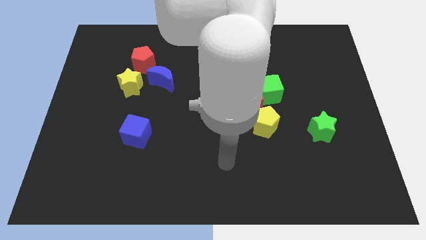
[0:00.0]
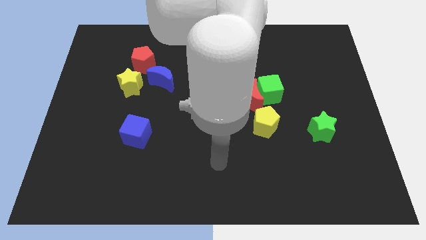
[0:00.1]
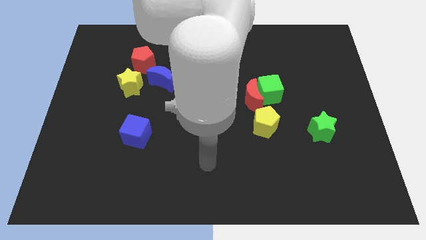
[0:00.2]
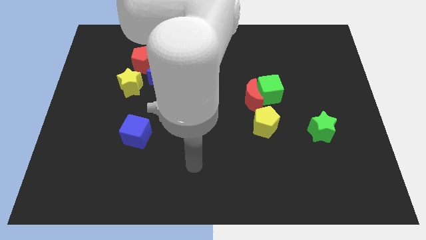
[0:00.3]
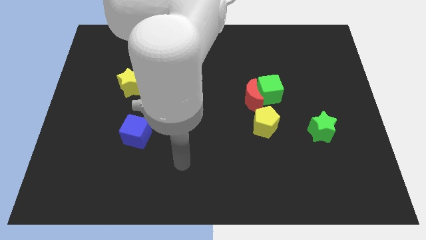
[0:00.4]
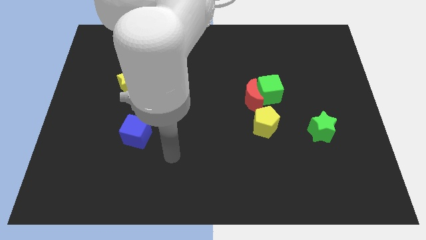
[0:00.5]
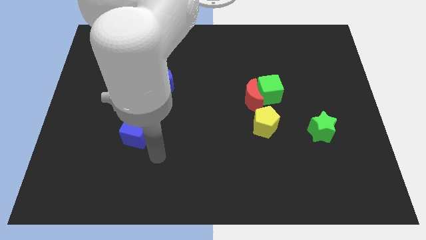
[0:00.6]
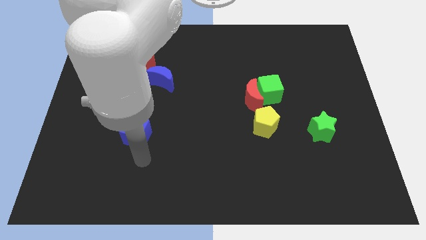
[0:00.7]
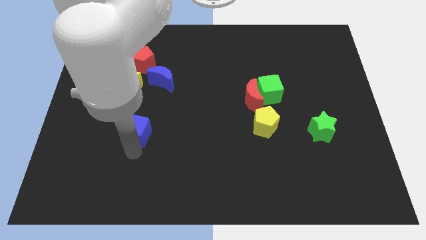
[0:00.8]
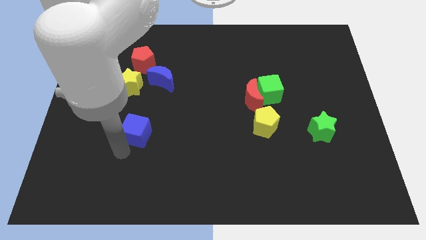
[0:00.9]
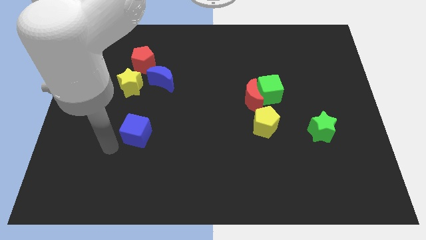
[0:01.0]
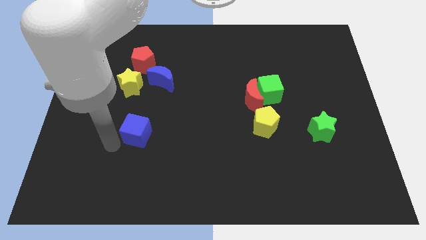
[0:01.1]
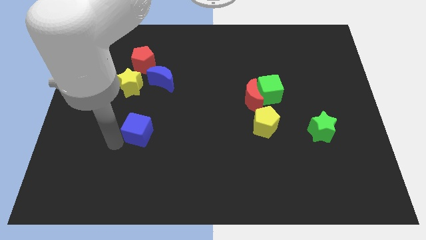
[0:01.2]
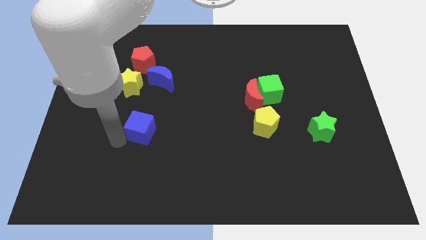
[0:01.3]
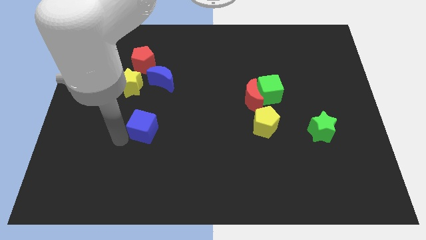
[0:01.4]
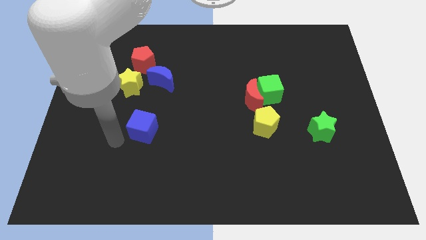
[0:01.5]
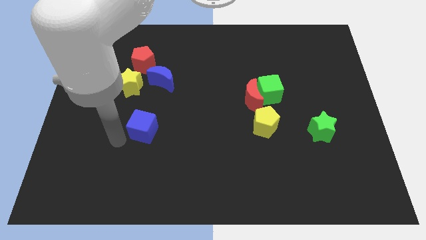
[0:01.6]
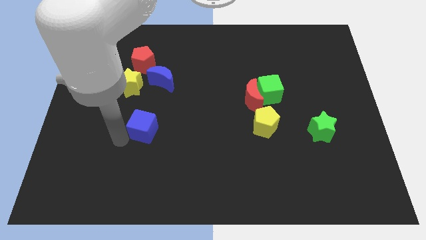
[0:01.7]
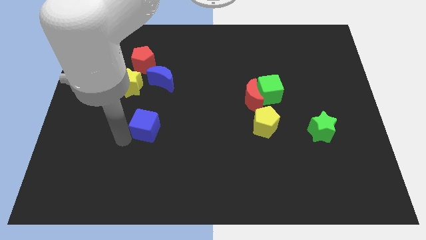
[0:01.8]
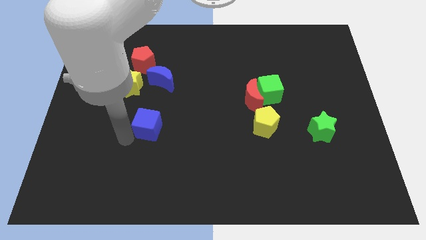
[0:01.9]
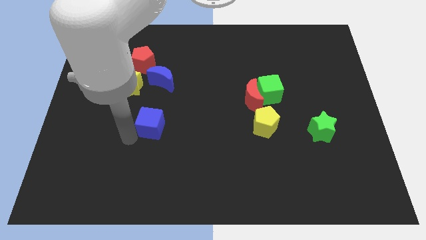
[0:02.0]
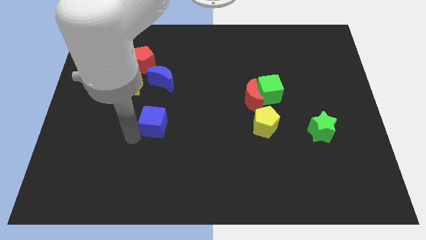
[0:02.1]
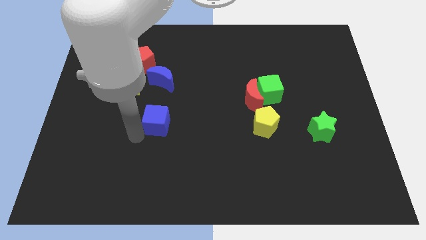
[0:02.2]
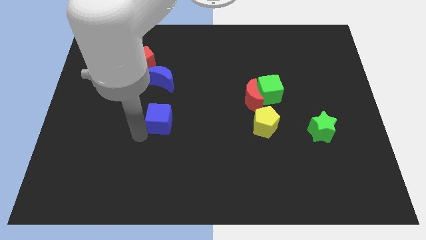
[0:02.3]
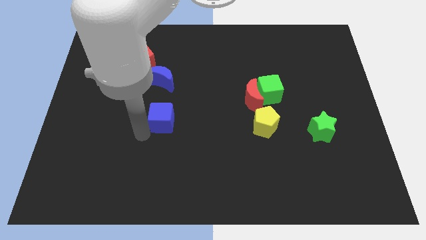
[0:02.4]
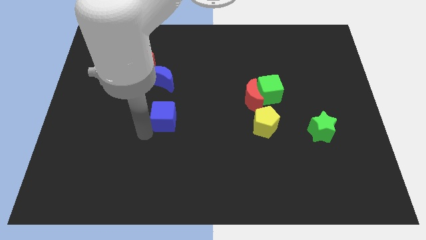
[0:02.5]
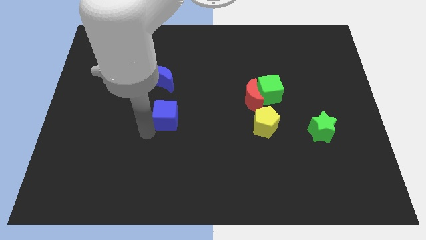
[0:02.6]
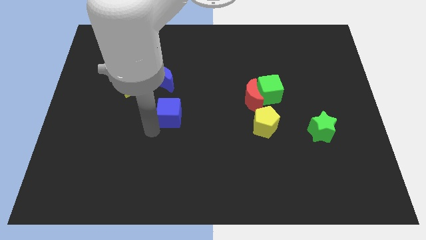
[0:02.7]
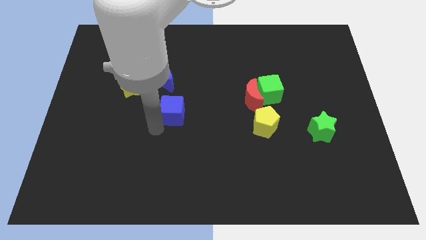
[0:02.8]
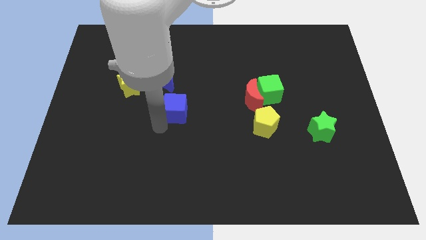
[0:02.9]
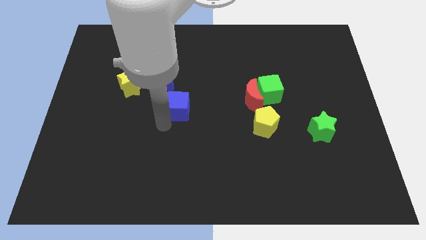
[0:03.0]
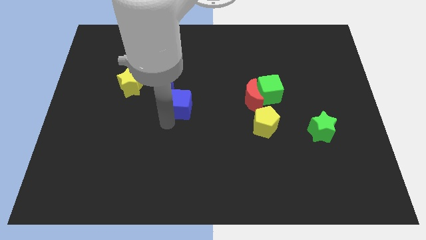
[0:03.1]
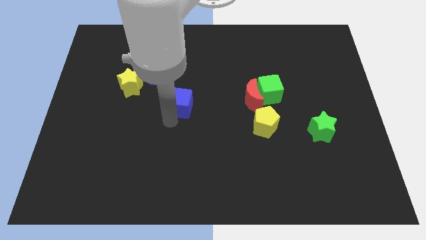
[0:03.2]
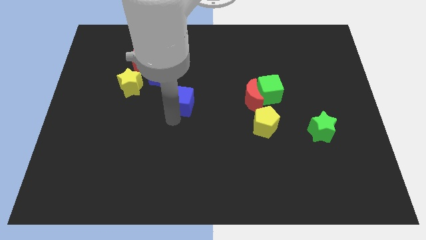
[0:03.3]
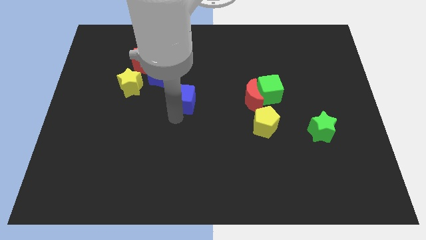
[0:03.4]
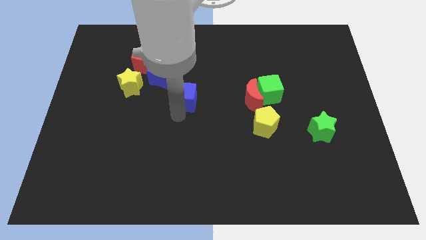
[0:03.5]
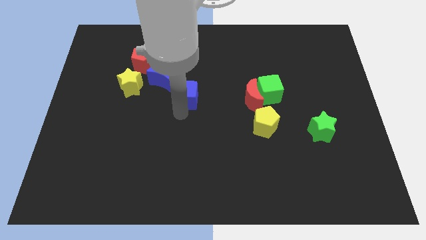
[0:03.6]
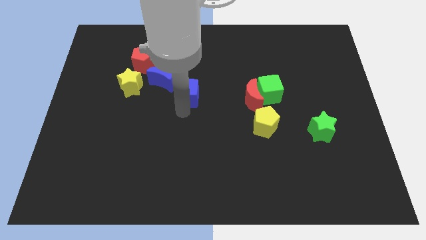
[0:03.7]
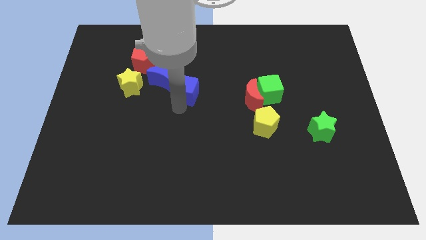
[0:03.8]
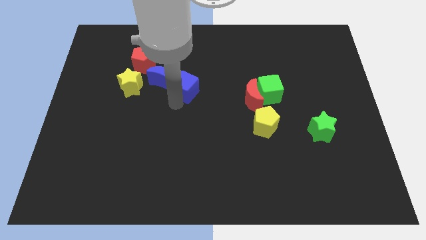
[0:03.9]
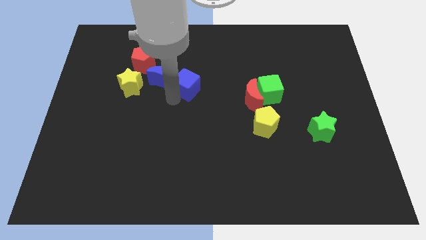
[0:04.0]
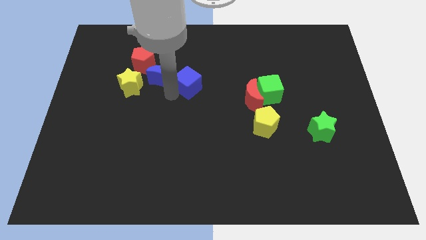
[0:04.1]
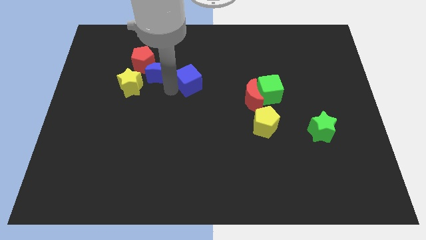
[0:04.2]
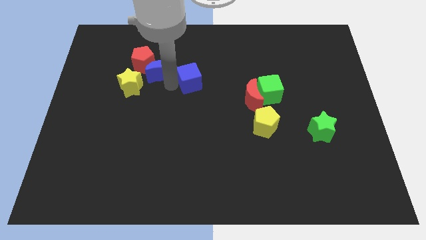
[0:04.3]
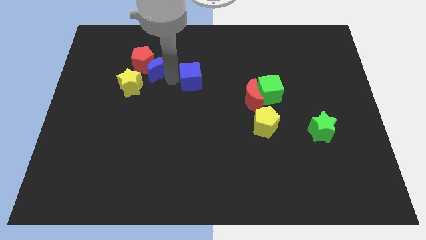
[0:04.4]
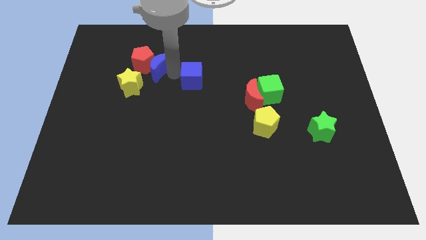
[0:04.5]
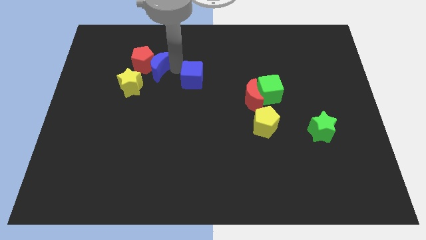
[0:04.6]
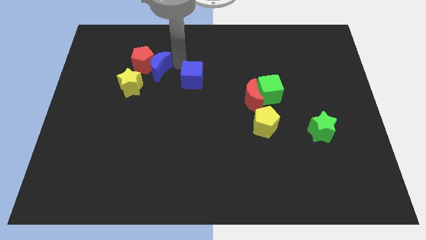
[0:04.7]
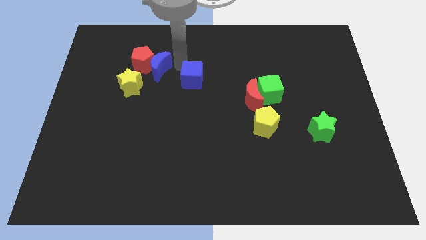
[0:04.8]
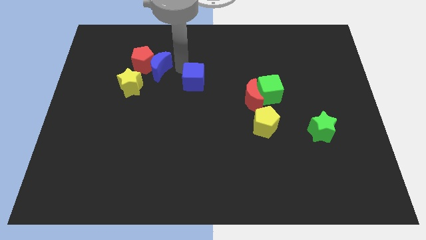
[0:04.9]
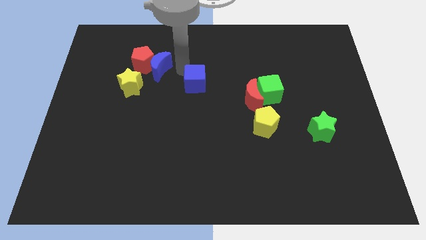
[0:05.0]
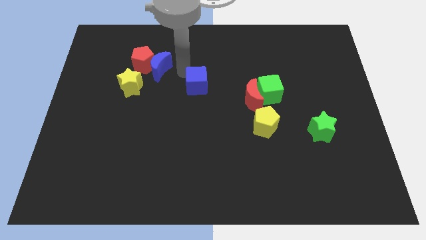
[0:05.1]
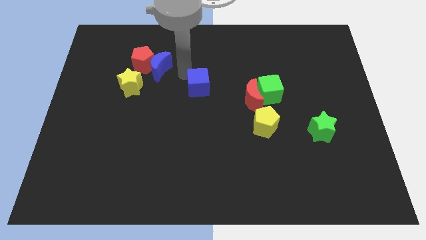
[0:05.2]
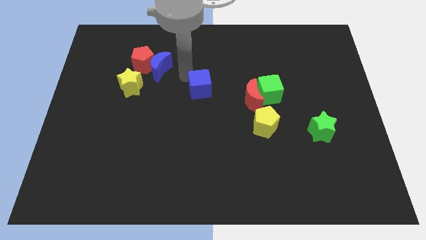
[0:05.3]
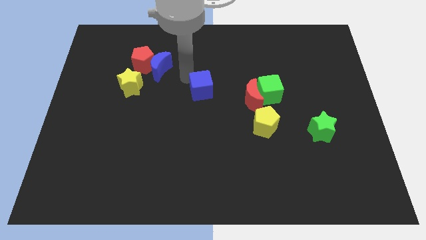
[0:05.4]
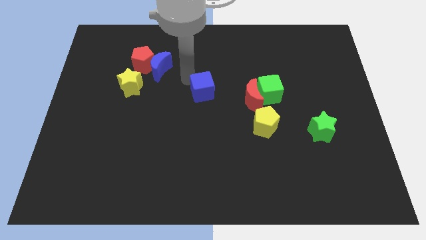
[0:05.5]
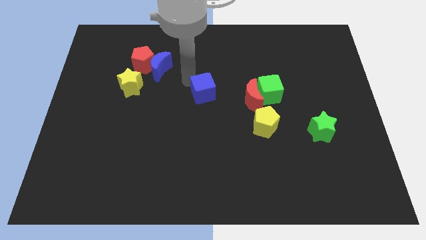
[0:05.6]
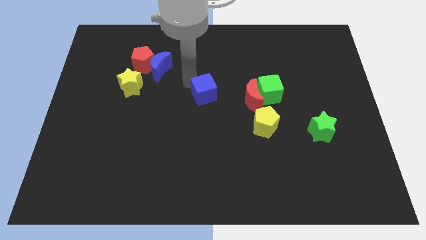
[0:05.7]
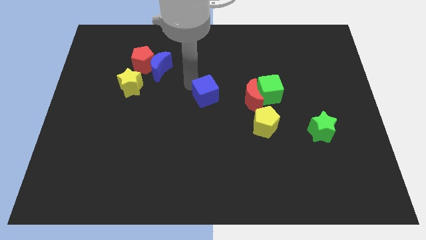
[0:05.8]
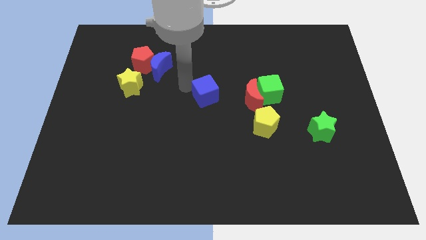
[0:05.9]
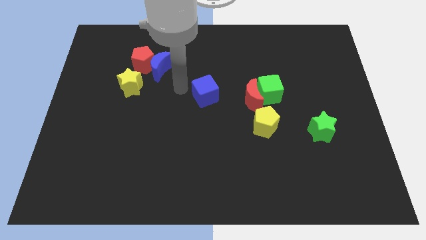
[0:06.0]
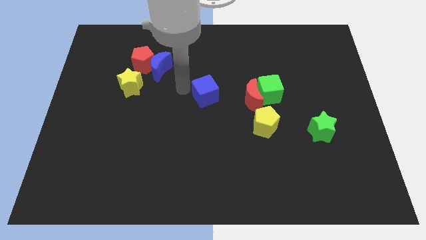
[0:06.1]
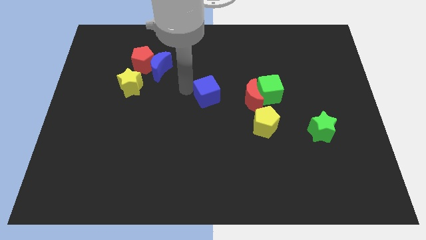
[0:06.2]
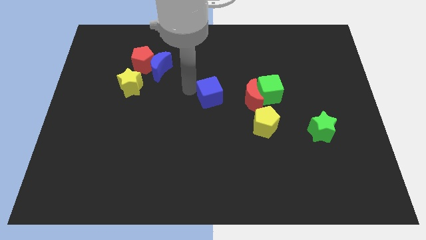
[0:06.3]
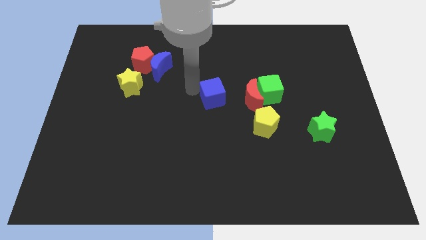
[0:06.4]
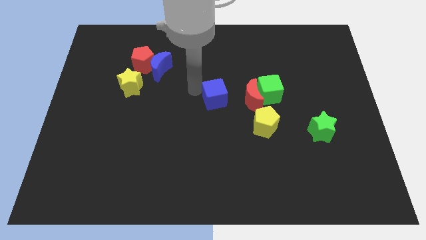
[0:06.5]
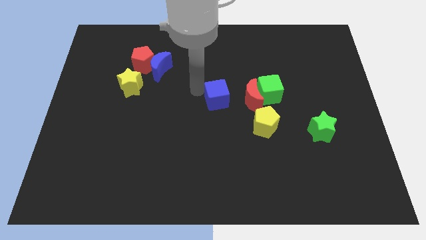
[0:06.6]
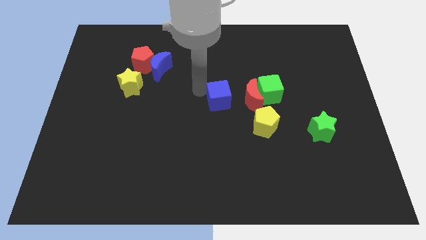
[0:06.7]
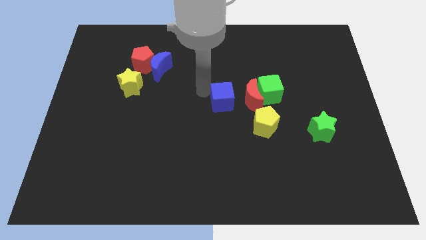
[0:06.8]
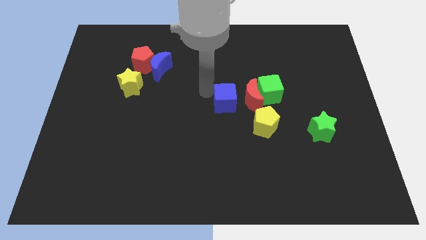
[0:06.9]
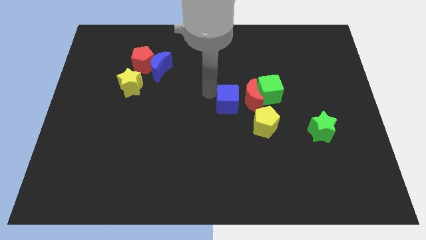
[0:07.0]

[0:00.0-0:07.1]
slide the blue cube close to the red moon

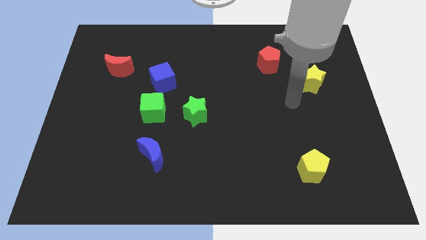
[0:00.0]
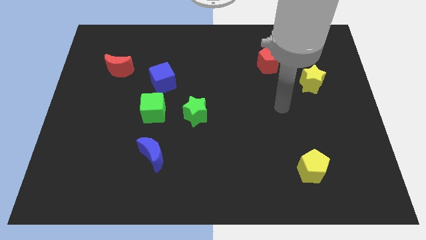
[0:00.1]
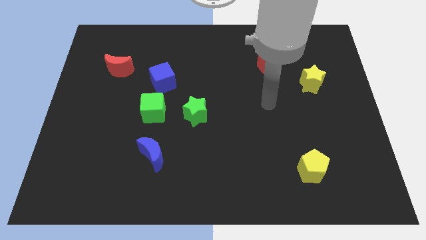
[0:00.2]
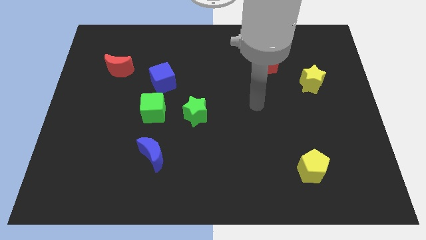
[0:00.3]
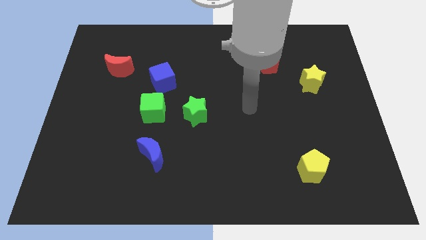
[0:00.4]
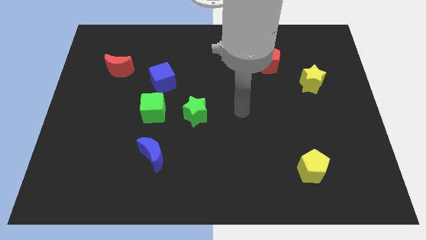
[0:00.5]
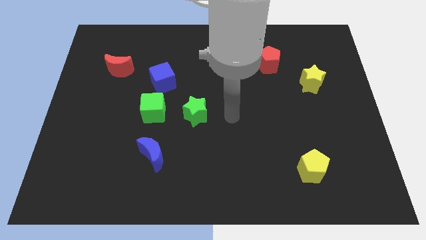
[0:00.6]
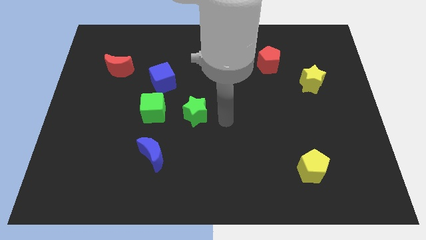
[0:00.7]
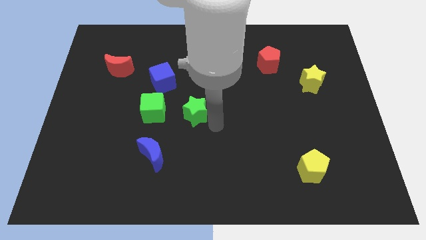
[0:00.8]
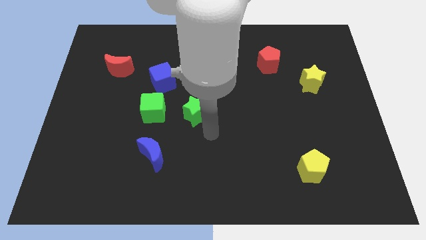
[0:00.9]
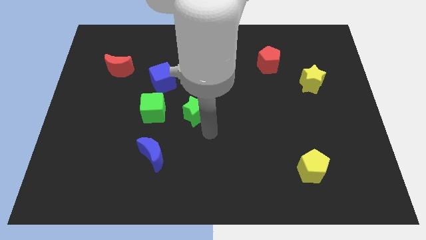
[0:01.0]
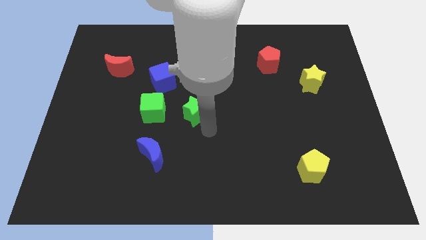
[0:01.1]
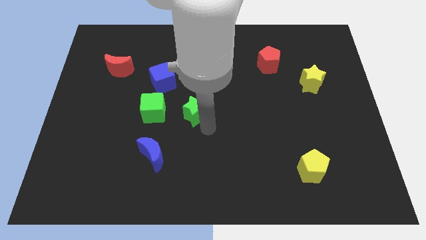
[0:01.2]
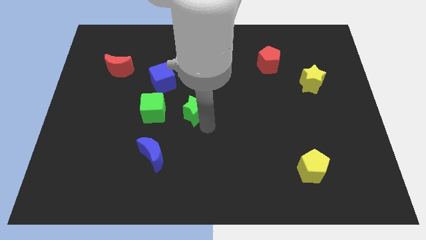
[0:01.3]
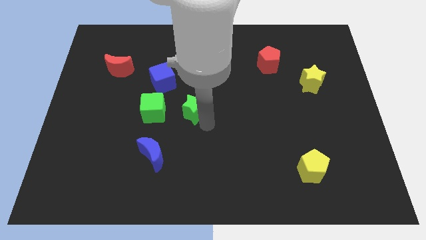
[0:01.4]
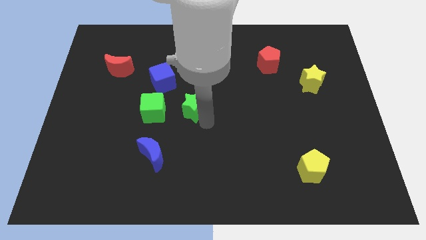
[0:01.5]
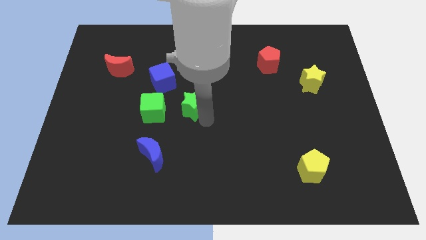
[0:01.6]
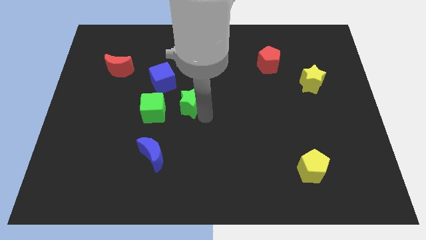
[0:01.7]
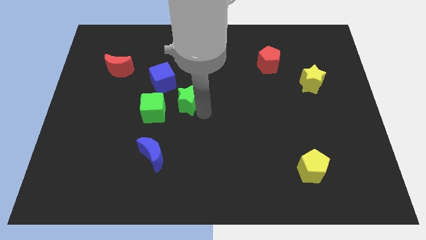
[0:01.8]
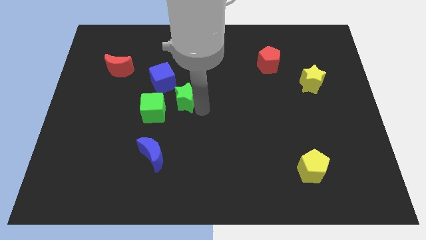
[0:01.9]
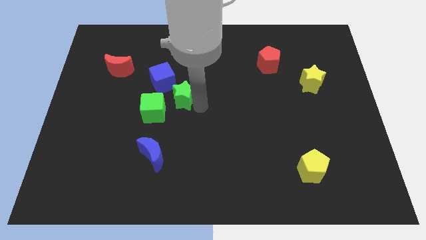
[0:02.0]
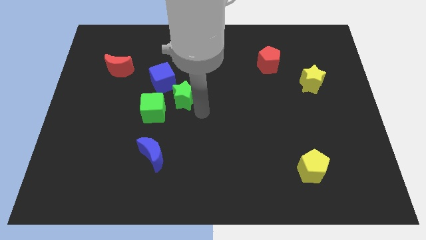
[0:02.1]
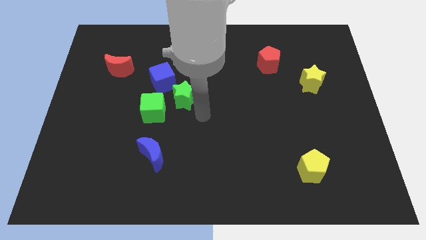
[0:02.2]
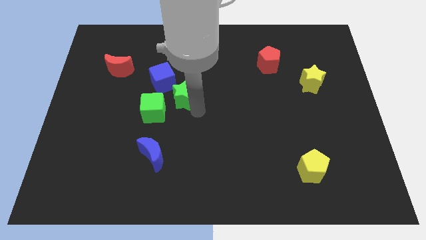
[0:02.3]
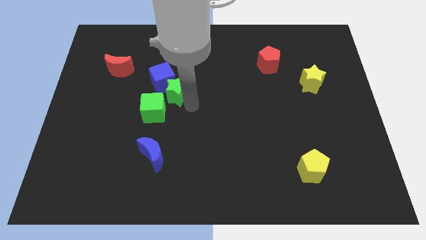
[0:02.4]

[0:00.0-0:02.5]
move the green star towards the blue cube
